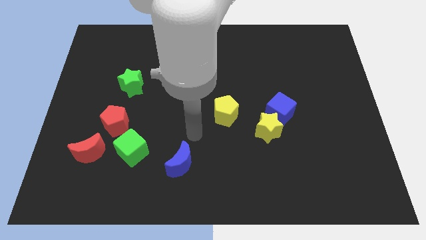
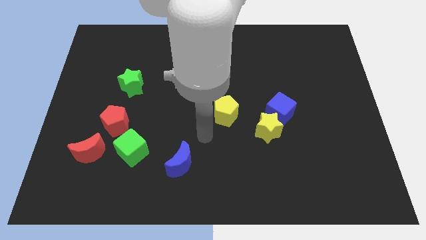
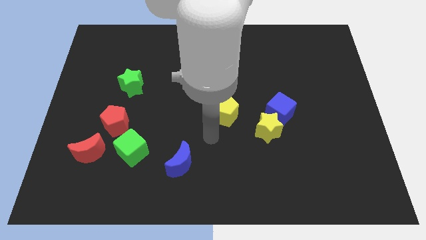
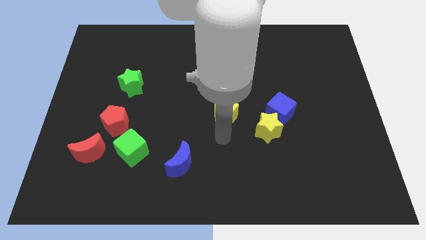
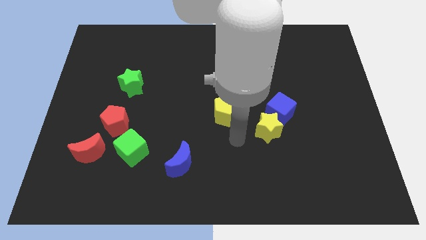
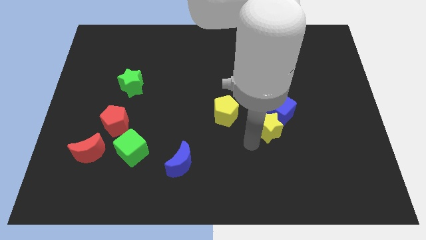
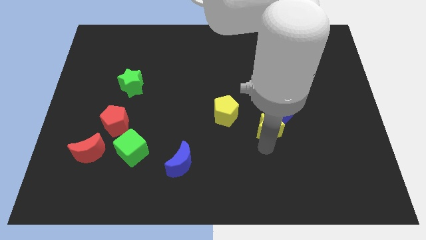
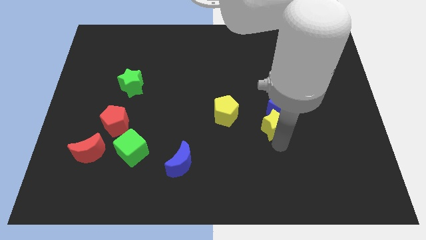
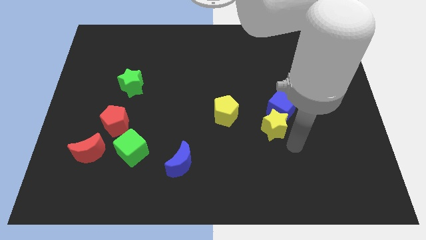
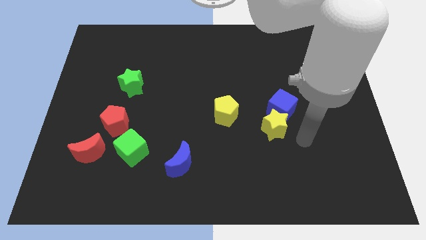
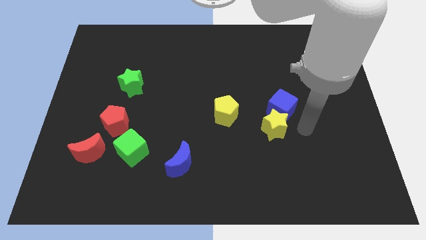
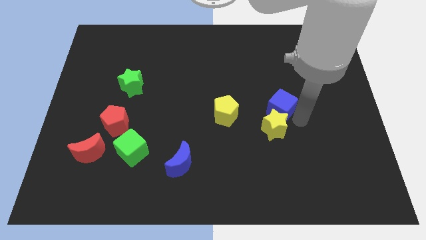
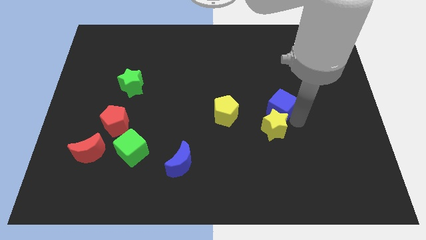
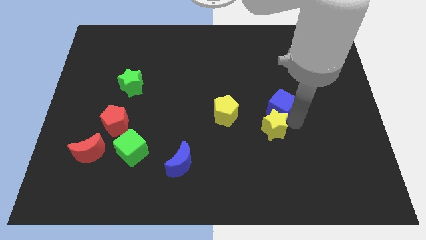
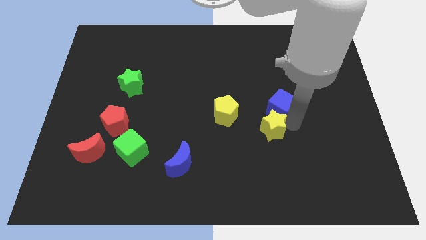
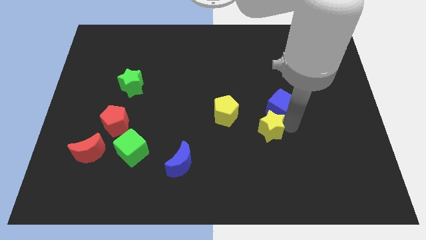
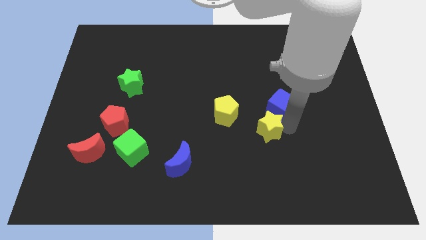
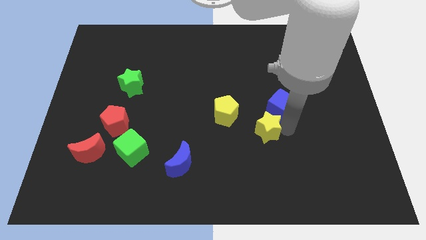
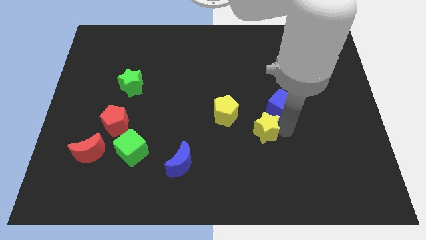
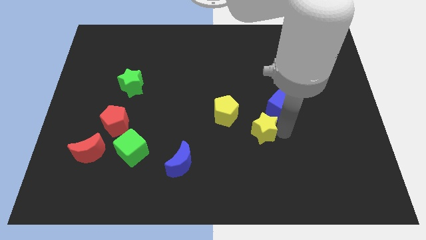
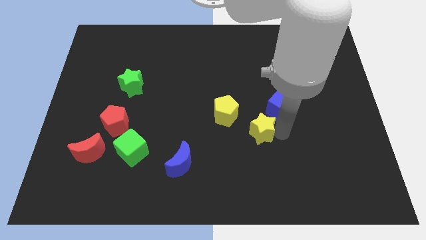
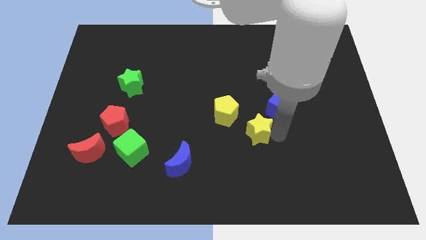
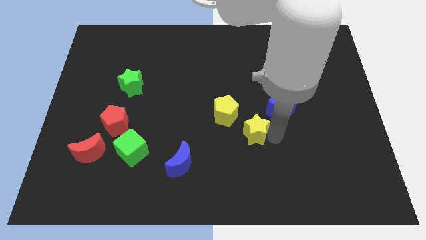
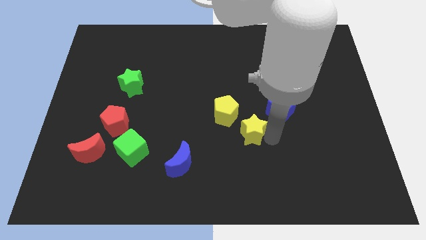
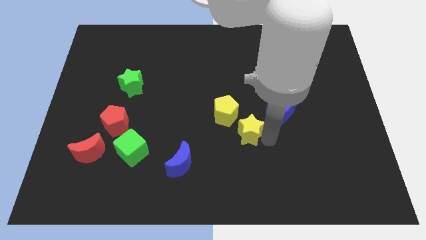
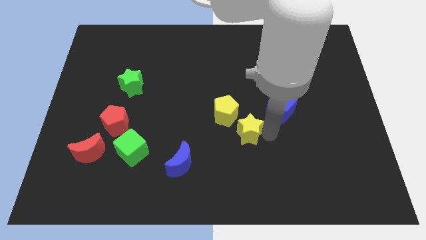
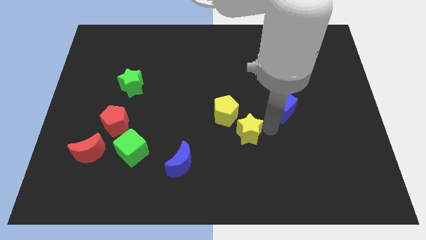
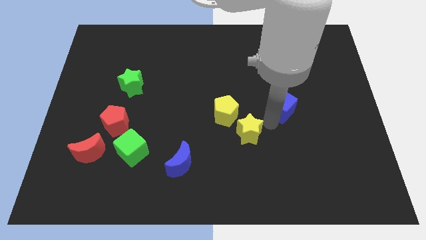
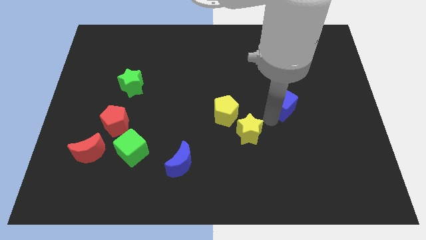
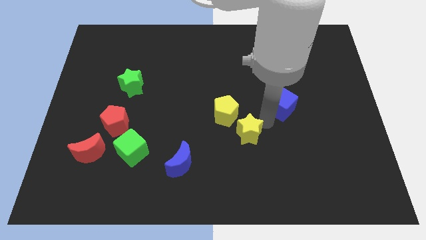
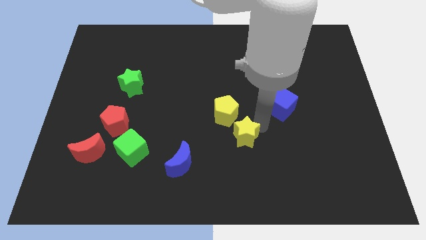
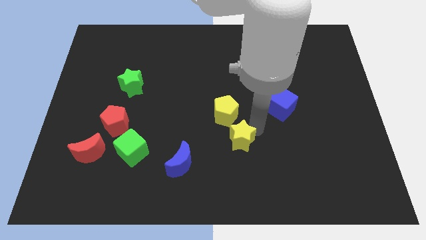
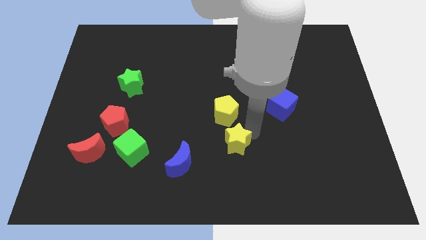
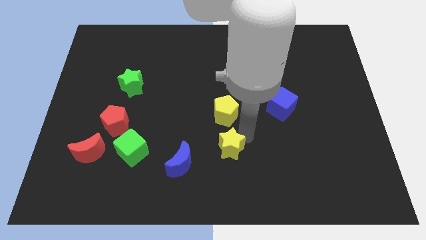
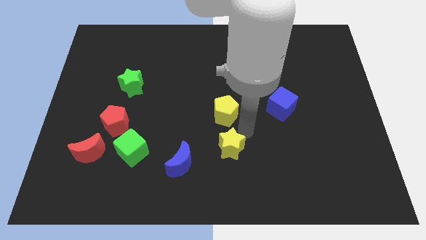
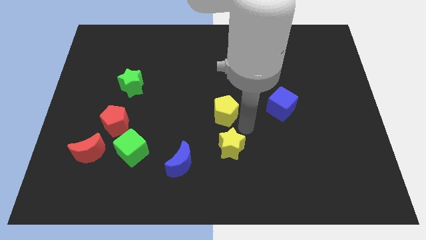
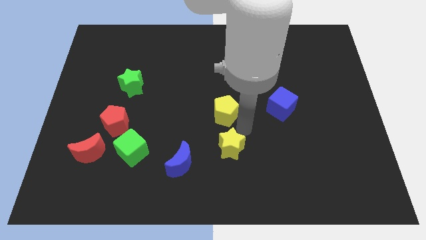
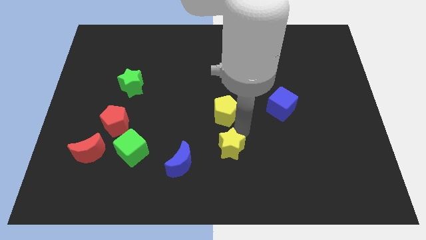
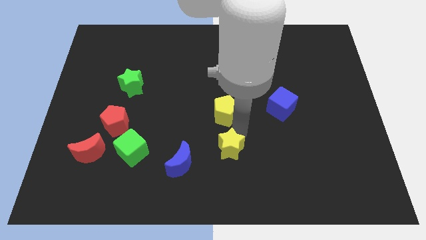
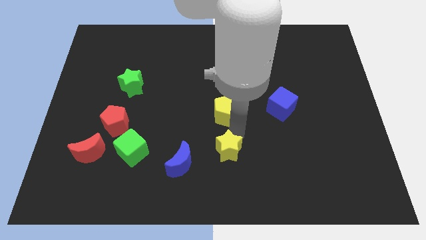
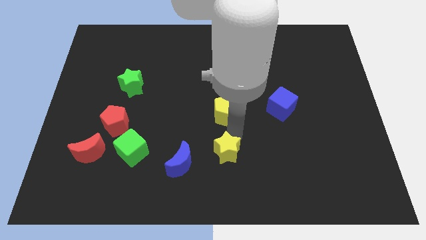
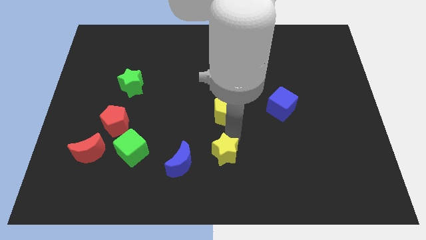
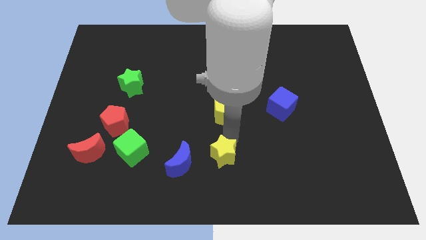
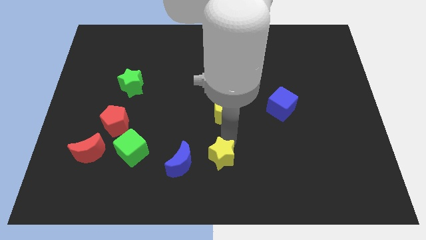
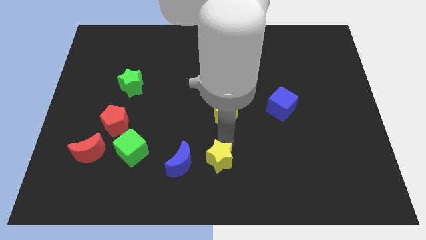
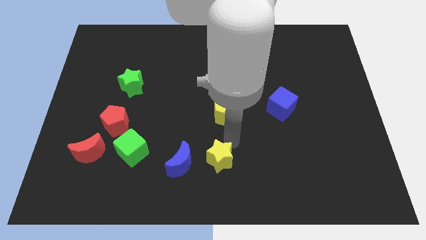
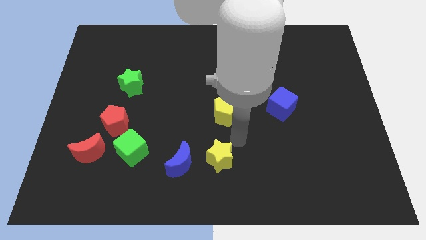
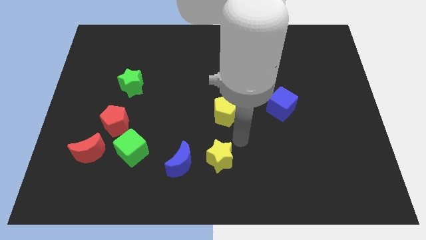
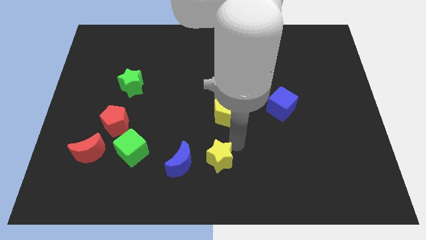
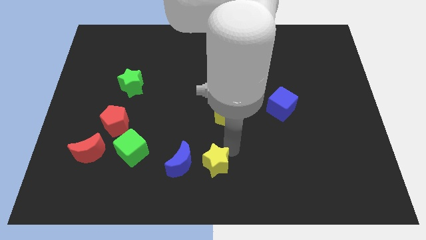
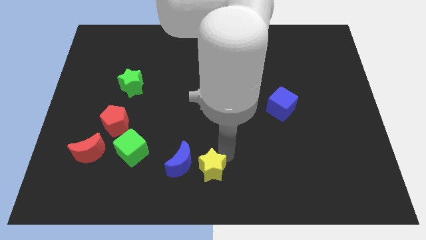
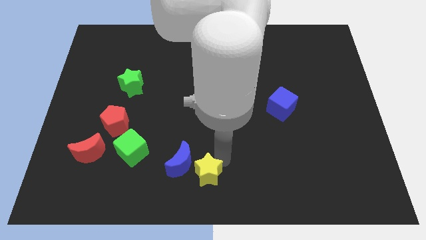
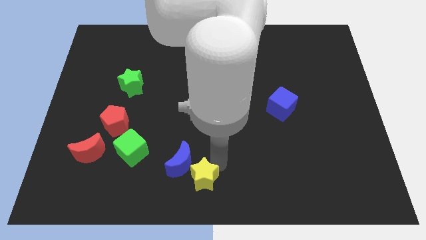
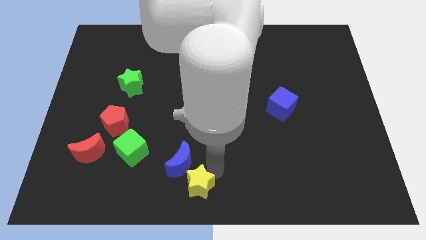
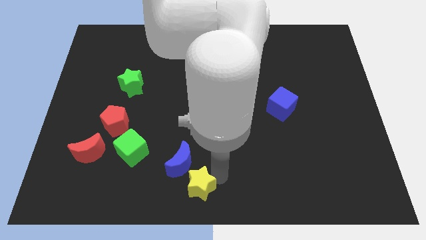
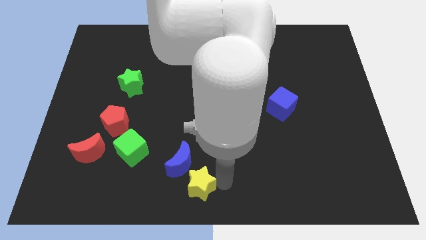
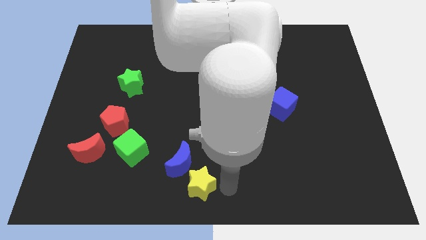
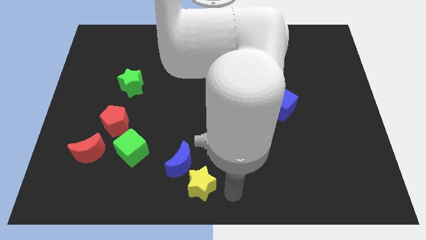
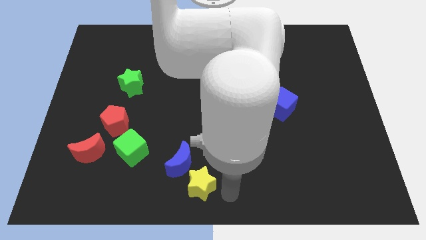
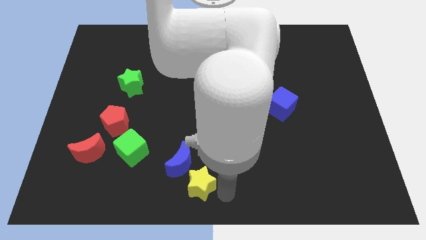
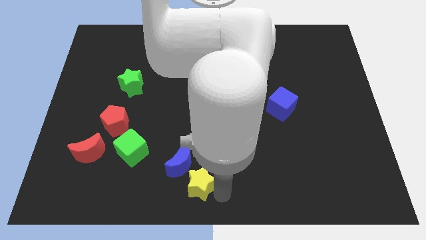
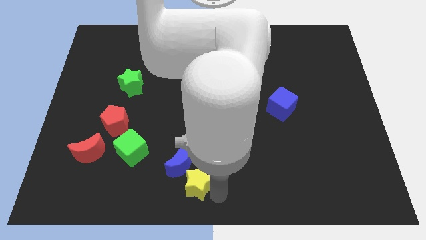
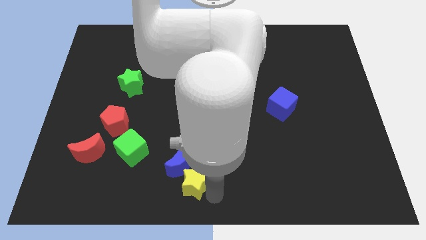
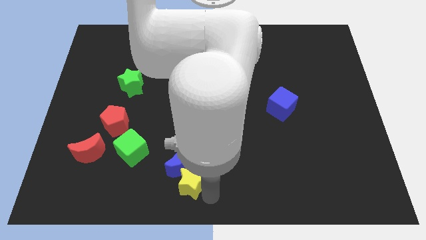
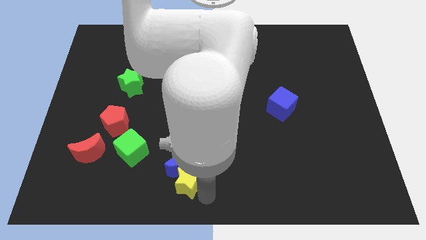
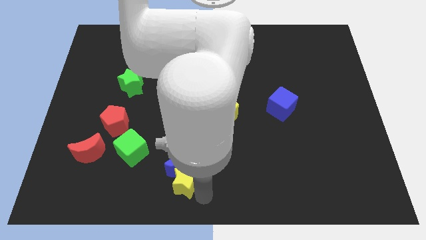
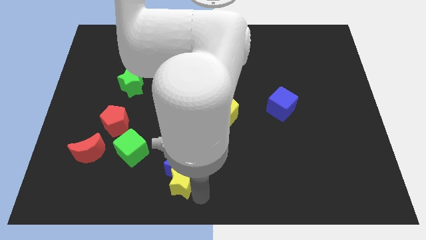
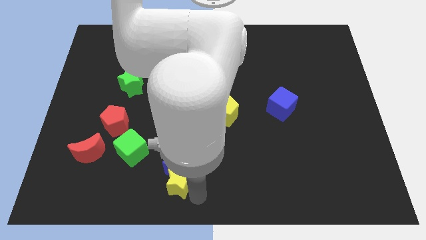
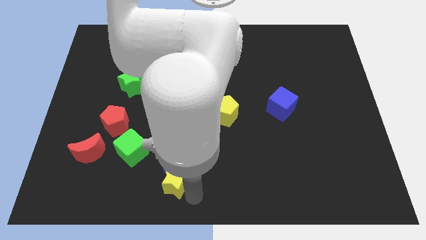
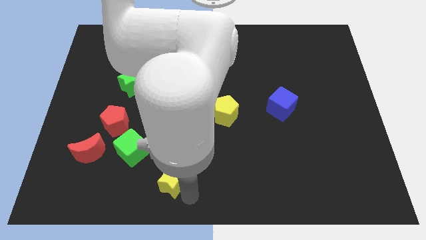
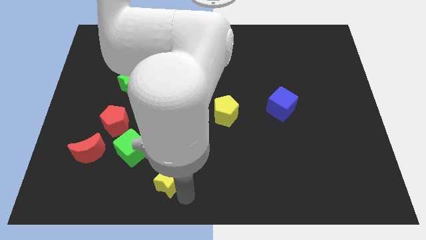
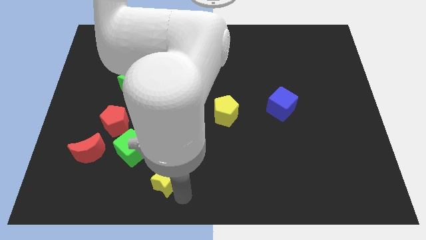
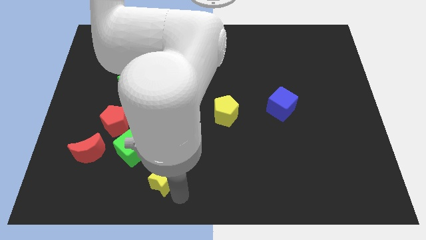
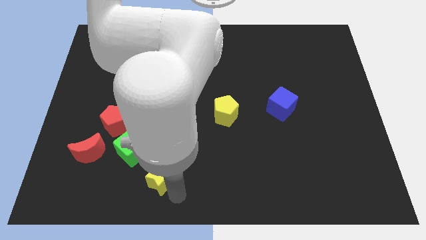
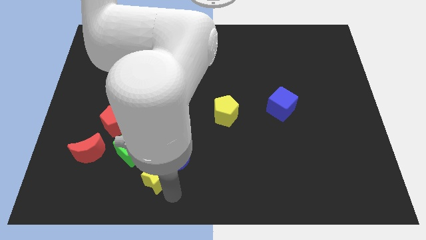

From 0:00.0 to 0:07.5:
move the yellow star left of the blue moon
